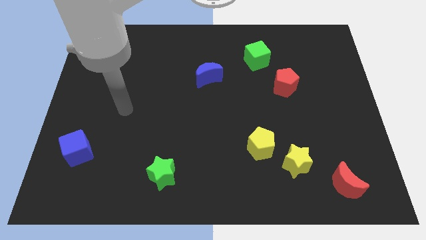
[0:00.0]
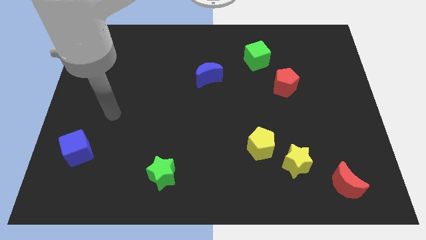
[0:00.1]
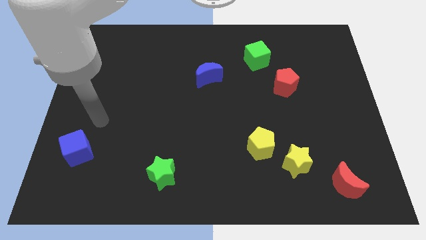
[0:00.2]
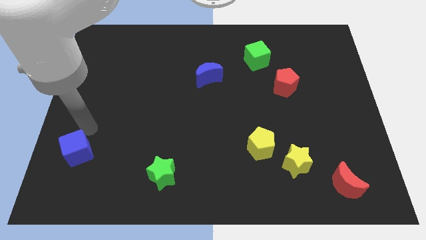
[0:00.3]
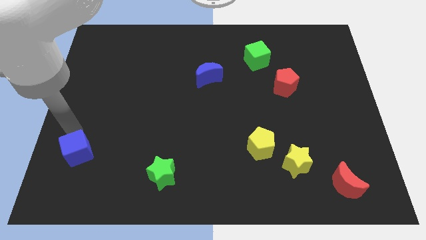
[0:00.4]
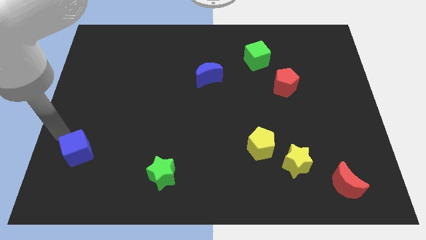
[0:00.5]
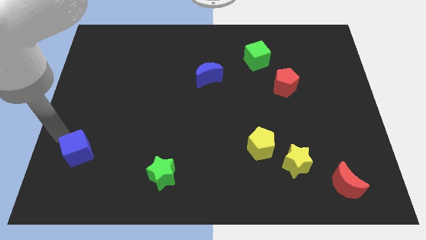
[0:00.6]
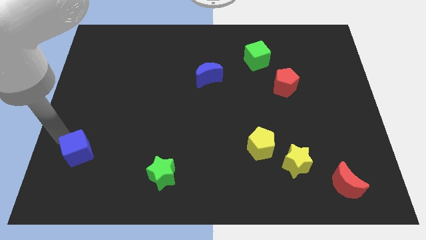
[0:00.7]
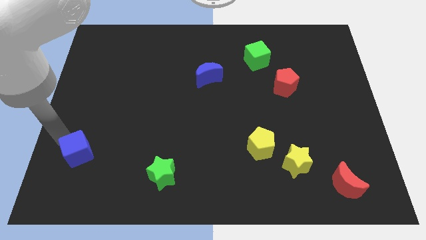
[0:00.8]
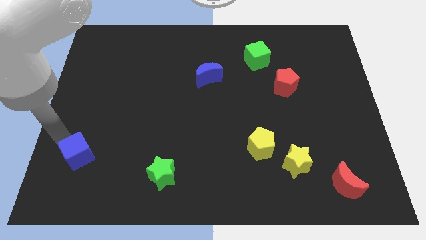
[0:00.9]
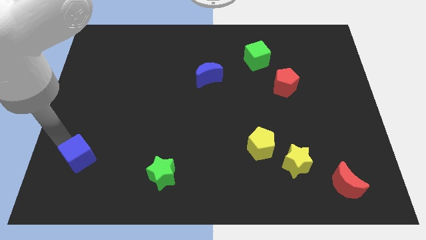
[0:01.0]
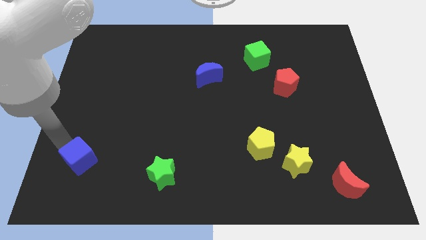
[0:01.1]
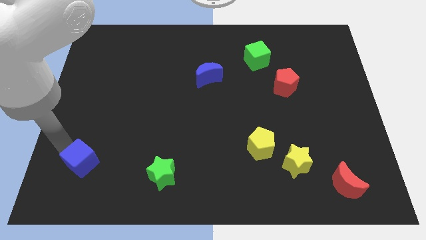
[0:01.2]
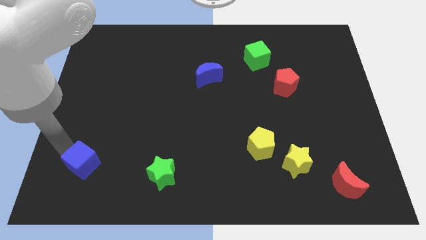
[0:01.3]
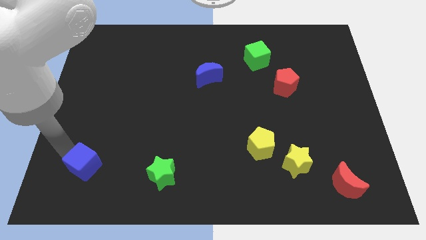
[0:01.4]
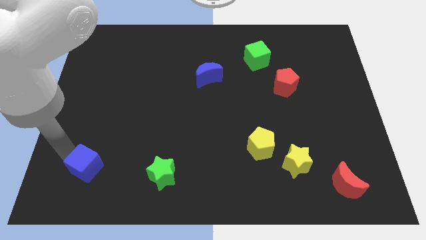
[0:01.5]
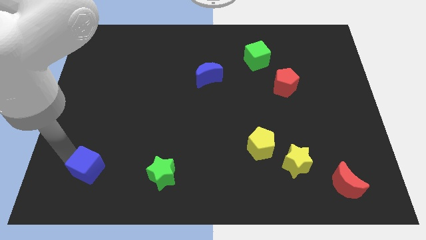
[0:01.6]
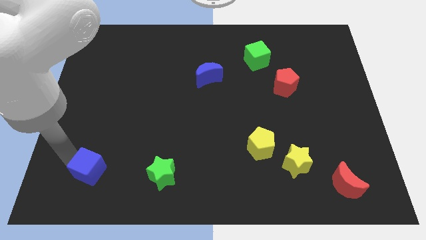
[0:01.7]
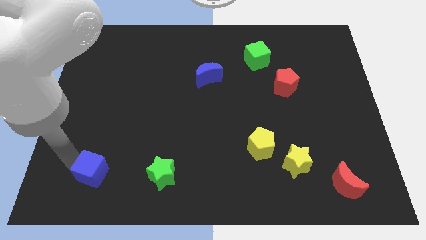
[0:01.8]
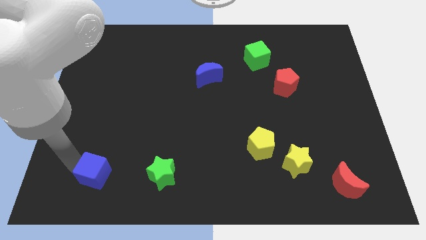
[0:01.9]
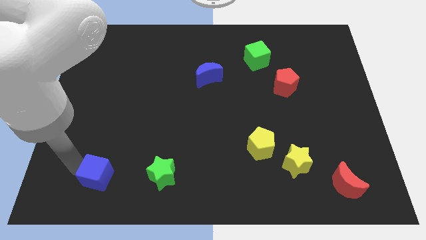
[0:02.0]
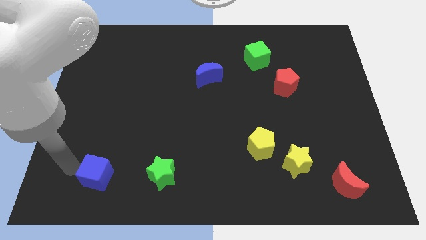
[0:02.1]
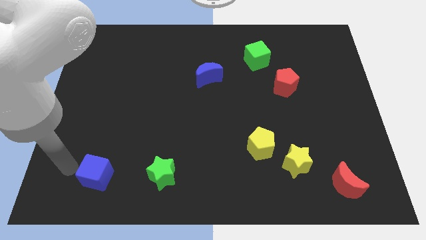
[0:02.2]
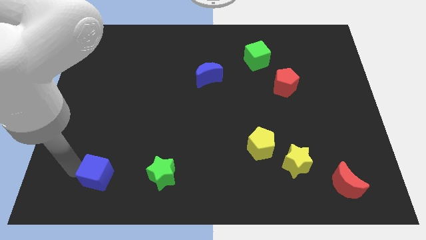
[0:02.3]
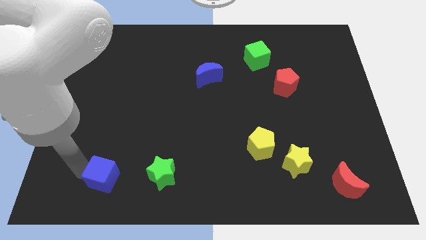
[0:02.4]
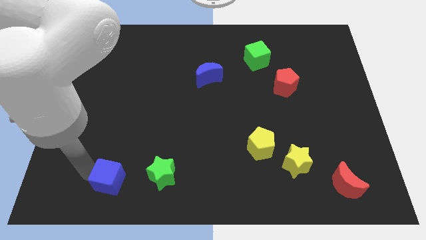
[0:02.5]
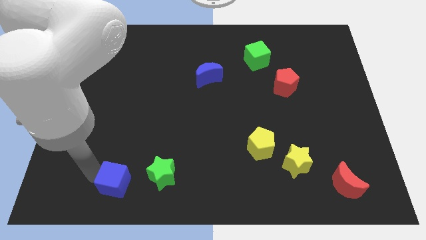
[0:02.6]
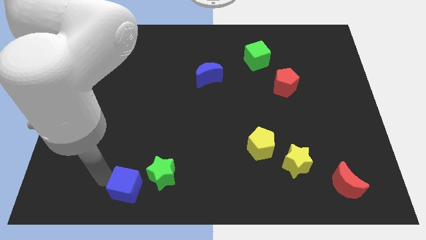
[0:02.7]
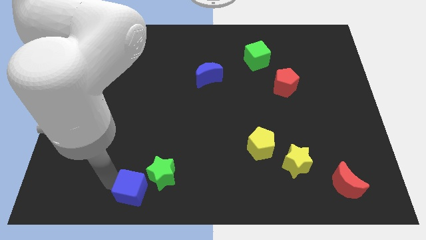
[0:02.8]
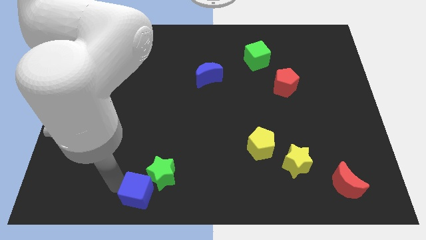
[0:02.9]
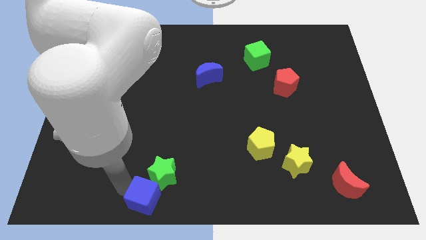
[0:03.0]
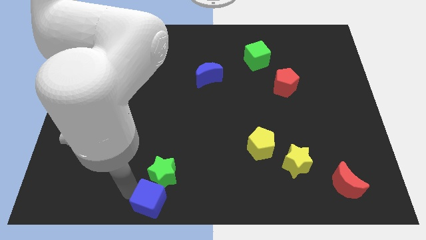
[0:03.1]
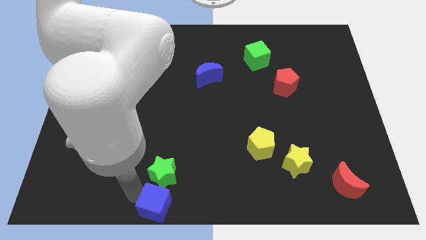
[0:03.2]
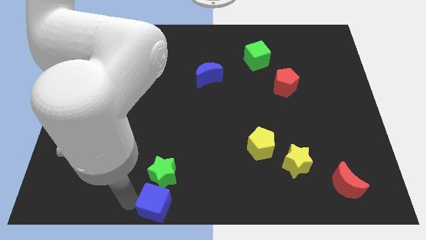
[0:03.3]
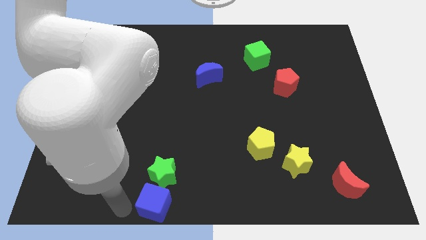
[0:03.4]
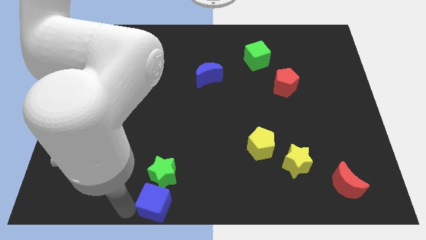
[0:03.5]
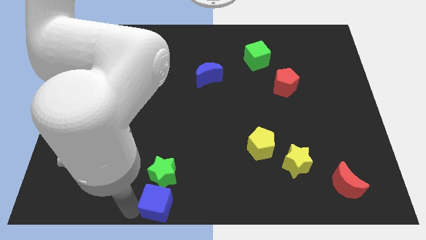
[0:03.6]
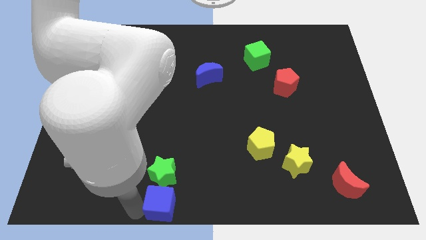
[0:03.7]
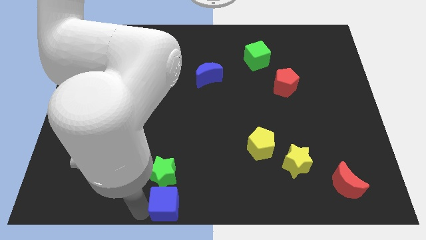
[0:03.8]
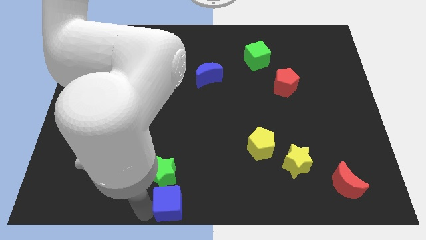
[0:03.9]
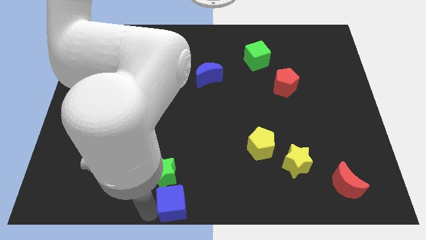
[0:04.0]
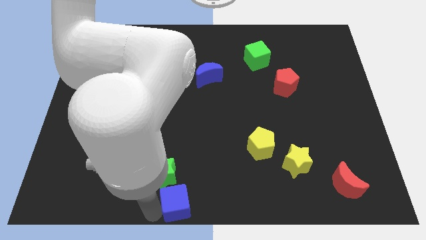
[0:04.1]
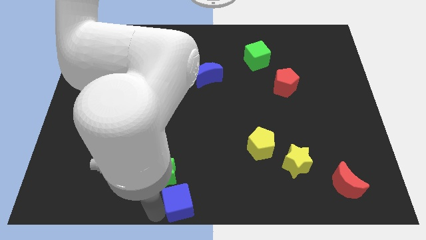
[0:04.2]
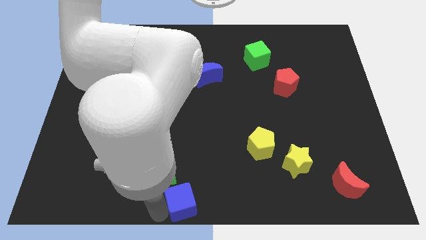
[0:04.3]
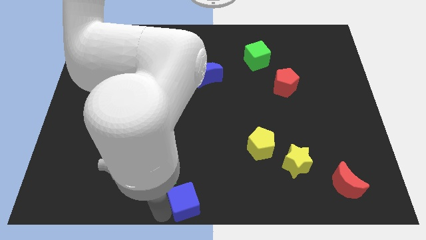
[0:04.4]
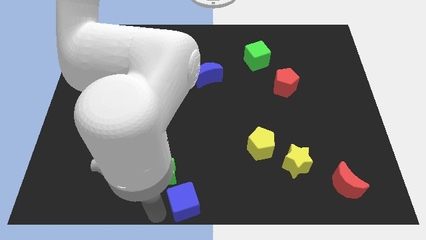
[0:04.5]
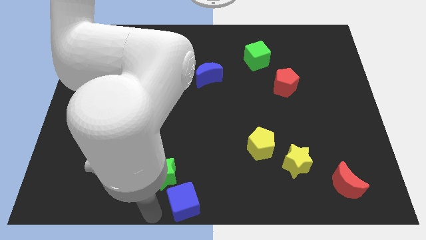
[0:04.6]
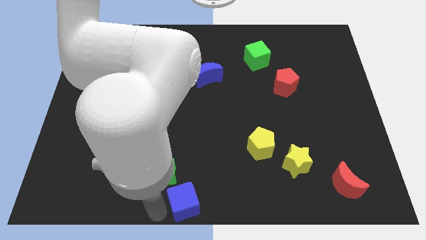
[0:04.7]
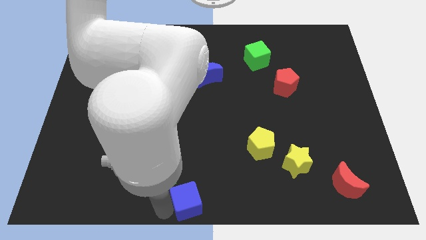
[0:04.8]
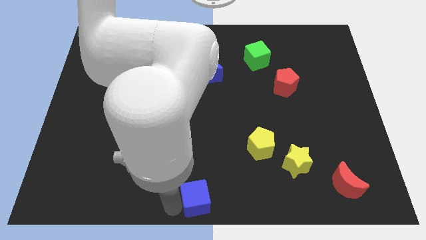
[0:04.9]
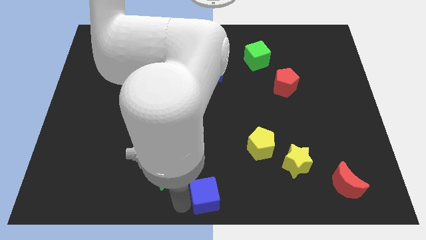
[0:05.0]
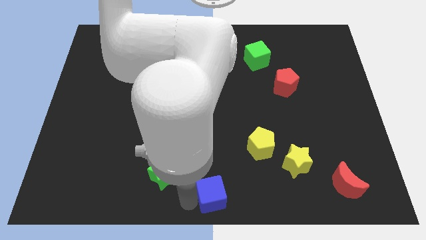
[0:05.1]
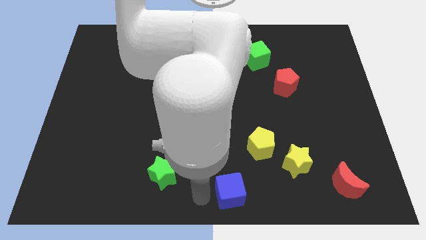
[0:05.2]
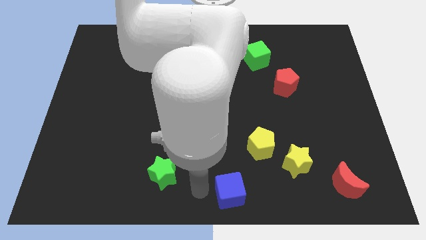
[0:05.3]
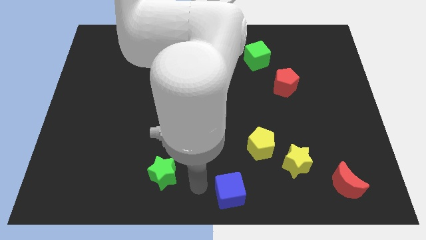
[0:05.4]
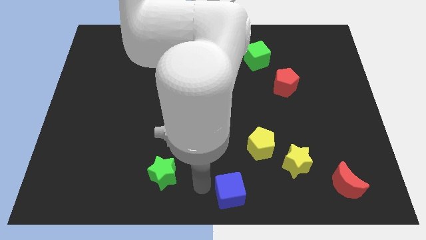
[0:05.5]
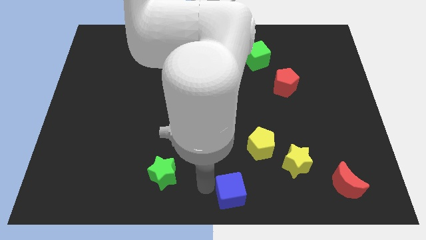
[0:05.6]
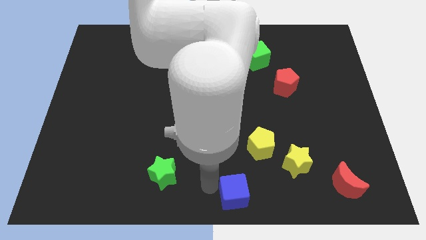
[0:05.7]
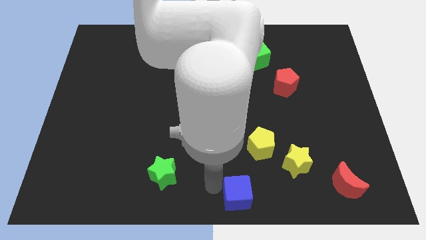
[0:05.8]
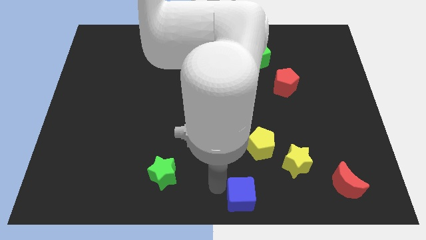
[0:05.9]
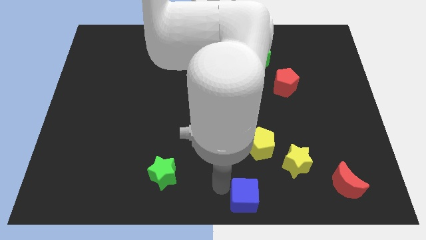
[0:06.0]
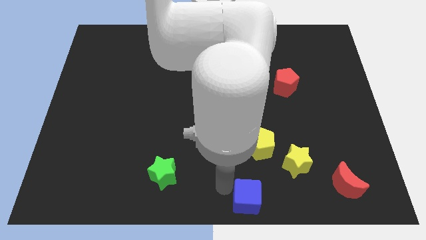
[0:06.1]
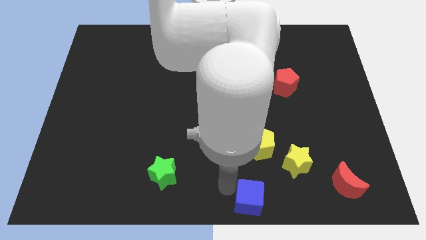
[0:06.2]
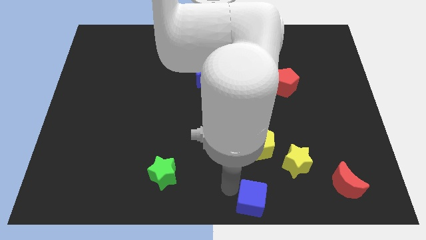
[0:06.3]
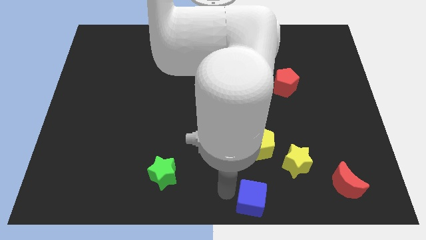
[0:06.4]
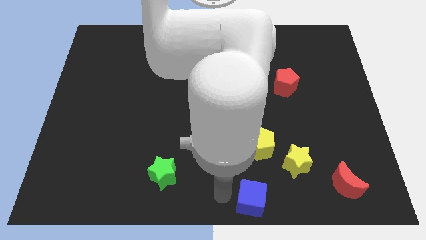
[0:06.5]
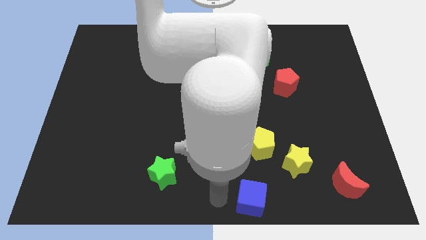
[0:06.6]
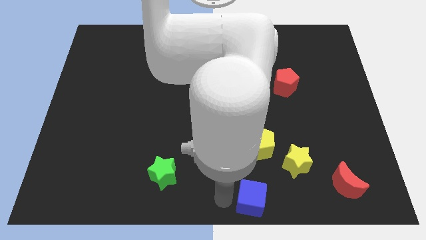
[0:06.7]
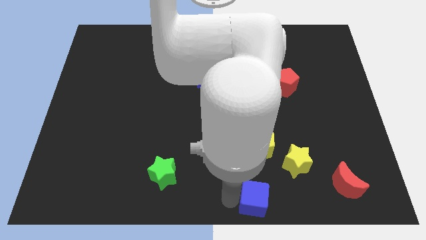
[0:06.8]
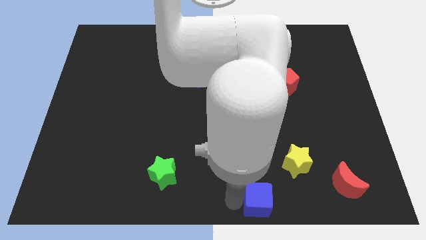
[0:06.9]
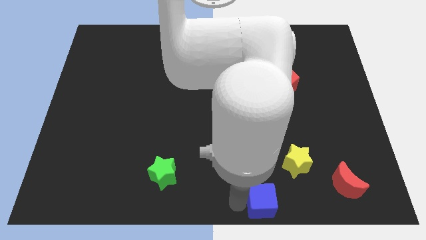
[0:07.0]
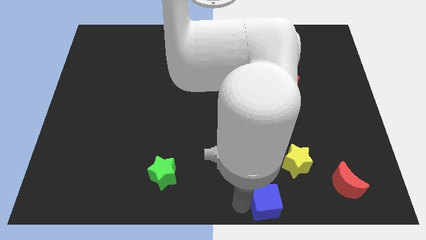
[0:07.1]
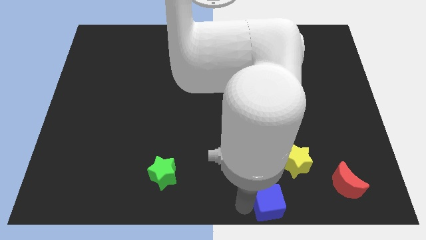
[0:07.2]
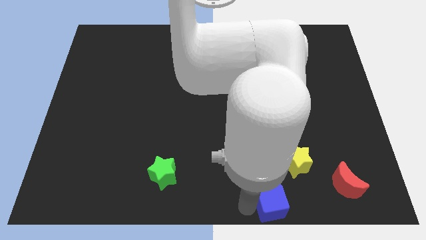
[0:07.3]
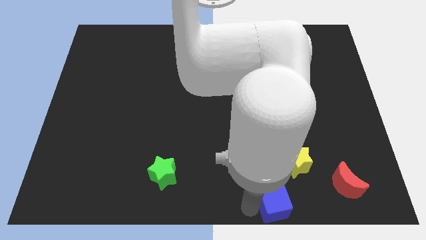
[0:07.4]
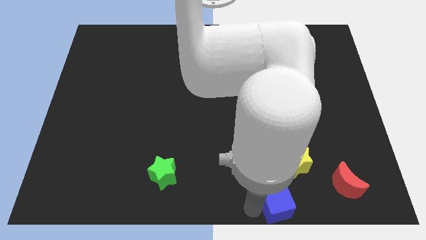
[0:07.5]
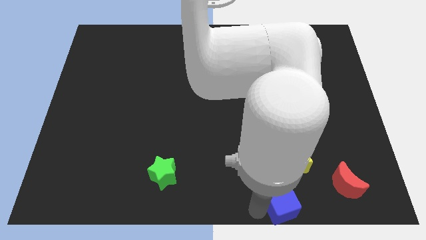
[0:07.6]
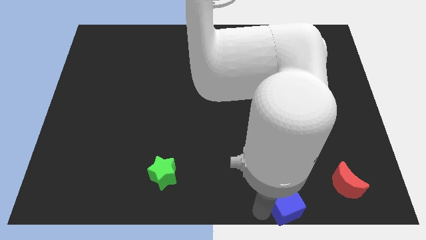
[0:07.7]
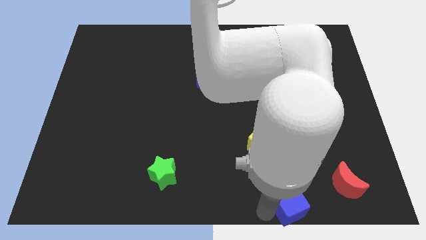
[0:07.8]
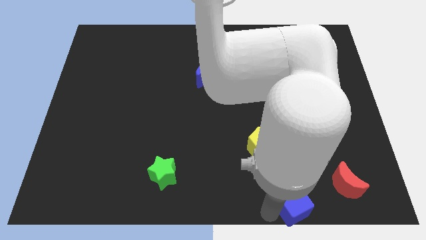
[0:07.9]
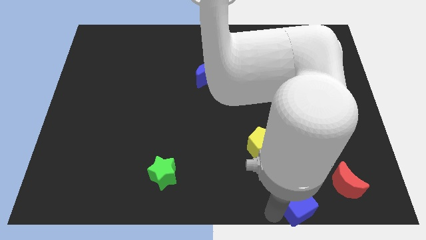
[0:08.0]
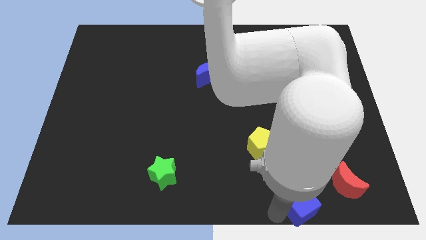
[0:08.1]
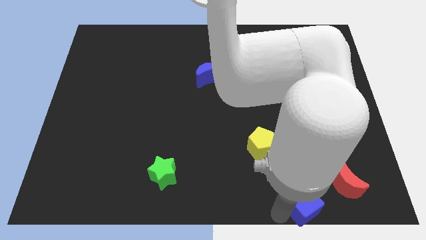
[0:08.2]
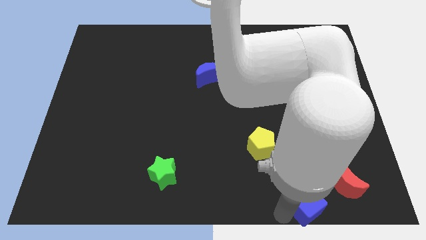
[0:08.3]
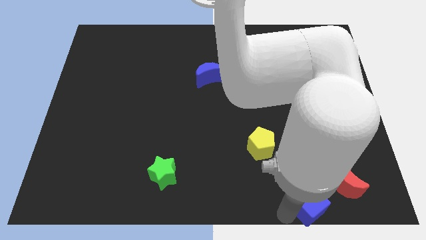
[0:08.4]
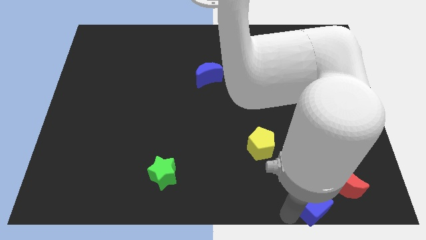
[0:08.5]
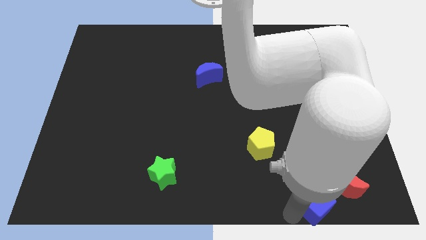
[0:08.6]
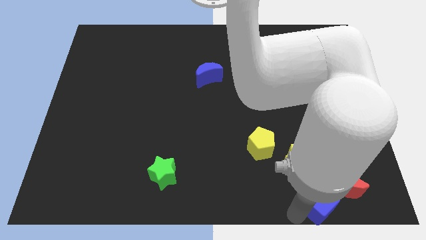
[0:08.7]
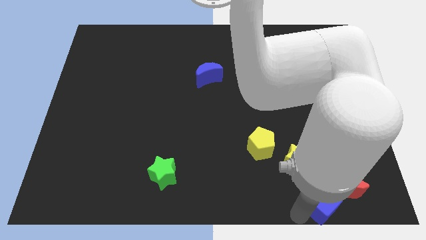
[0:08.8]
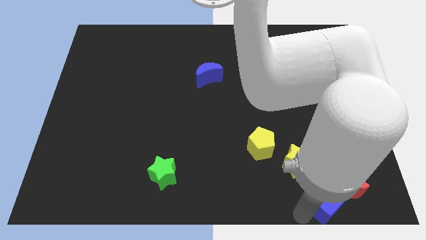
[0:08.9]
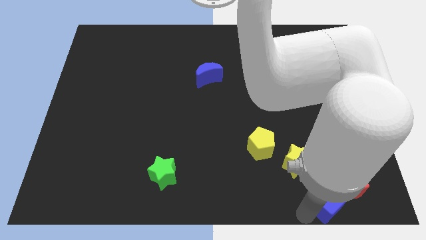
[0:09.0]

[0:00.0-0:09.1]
put the blue cube next to the red moon
